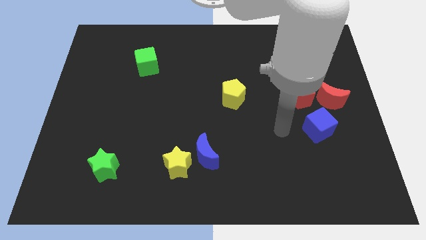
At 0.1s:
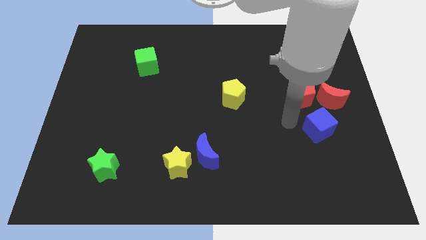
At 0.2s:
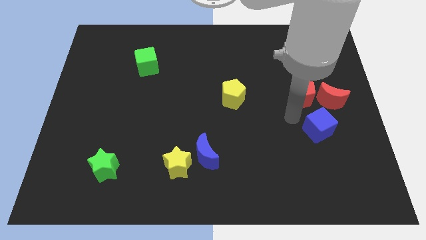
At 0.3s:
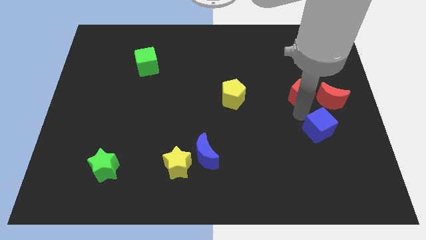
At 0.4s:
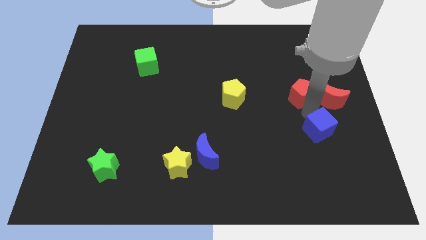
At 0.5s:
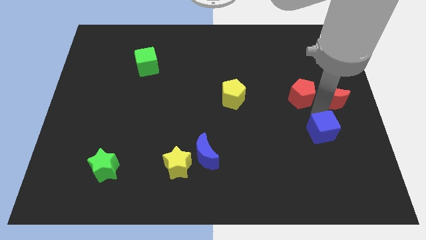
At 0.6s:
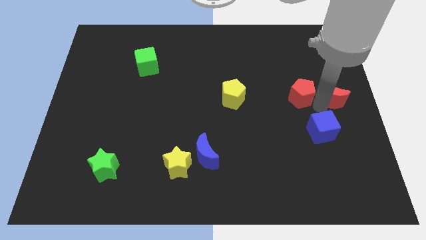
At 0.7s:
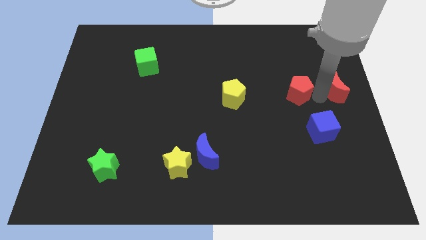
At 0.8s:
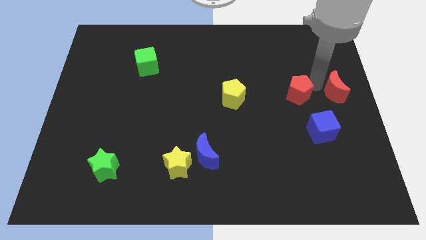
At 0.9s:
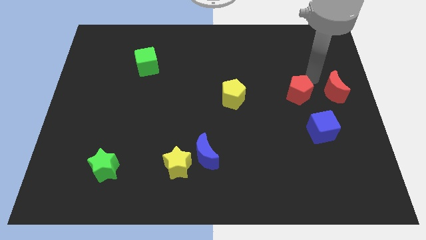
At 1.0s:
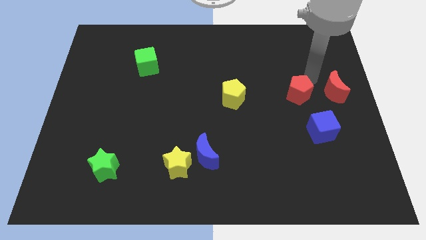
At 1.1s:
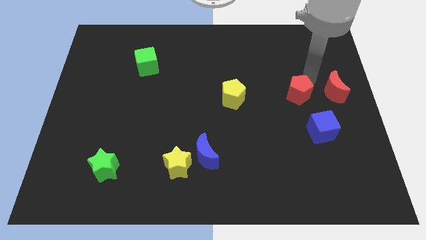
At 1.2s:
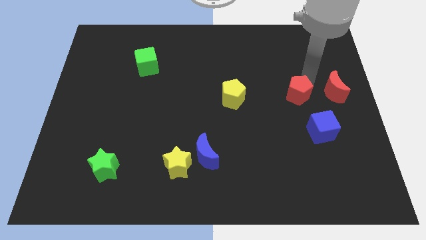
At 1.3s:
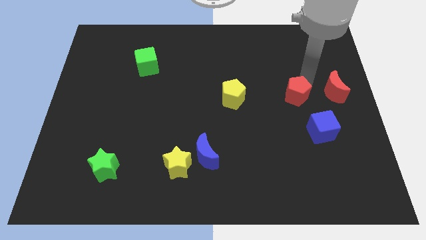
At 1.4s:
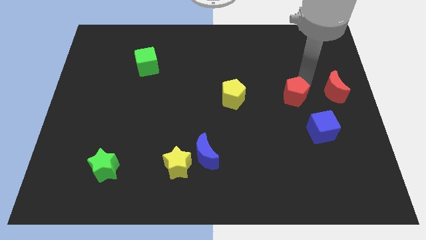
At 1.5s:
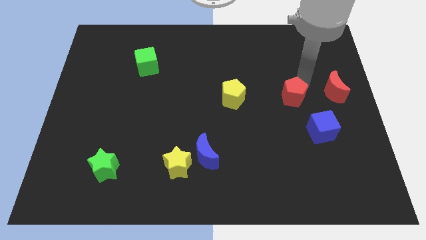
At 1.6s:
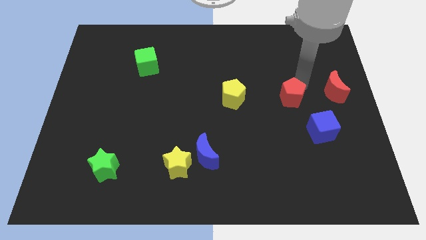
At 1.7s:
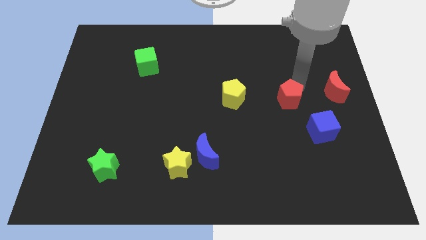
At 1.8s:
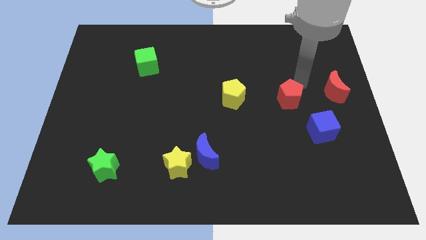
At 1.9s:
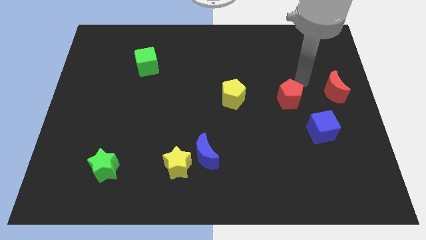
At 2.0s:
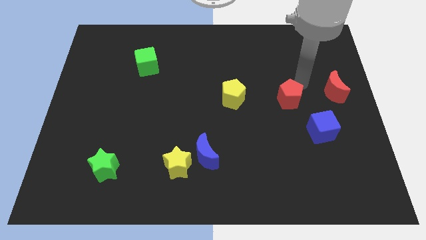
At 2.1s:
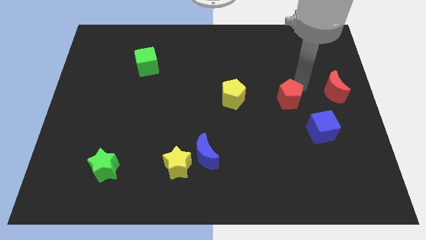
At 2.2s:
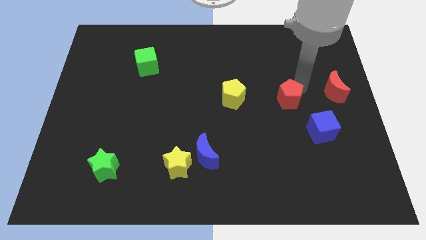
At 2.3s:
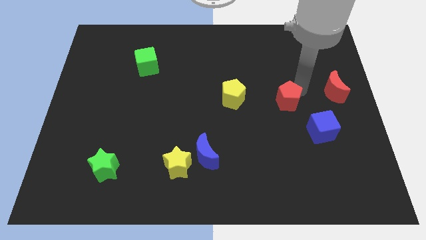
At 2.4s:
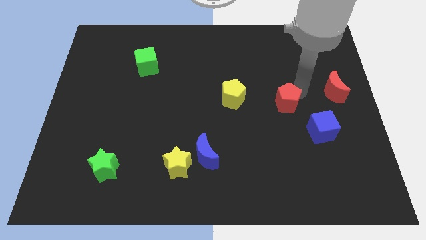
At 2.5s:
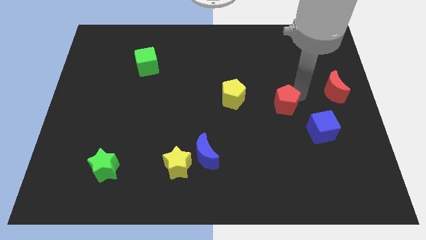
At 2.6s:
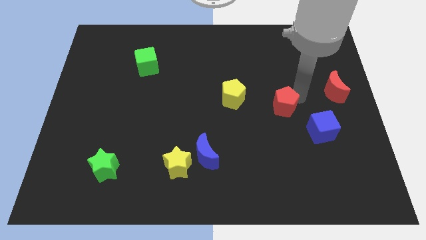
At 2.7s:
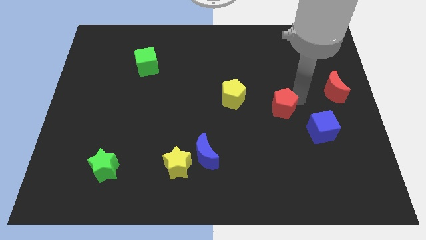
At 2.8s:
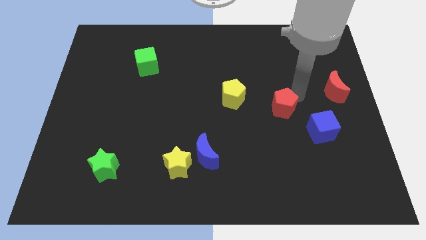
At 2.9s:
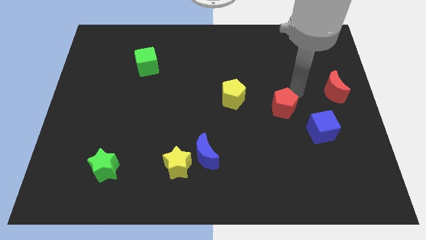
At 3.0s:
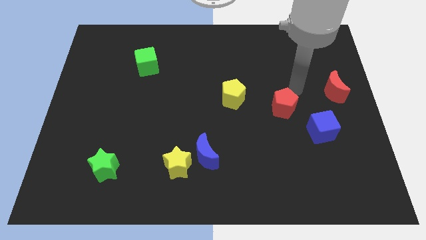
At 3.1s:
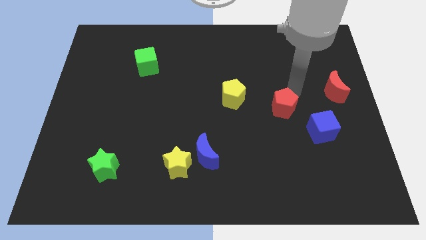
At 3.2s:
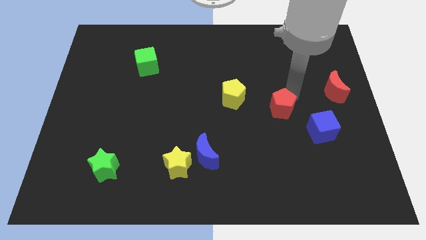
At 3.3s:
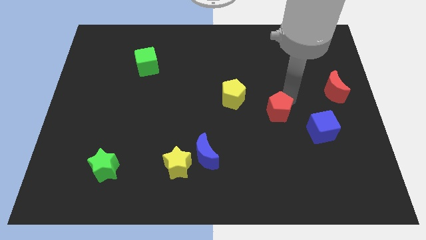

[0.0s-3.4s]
slide the red pentagon downwards and then left slightly

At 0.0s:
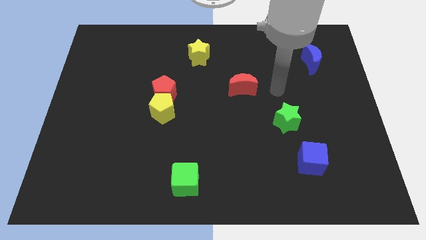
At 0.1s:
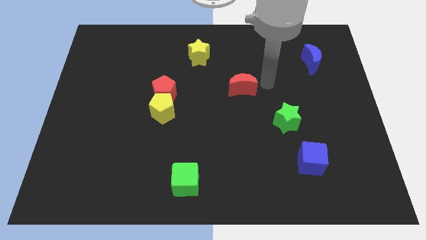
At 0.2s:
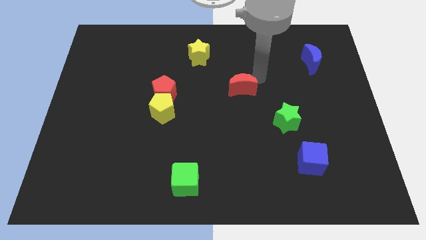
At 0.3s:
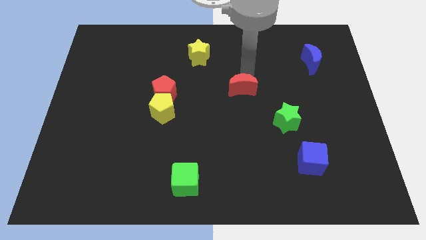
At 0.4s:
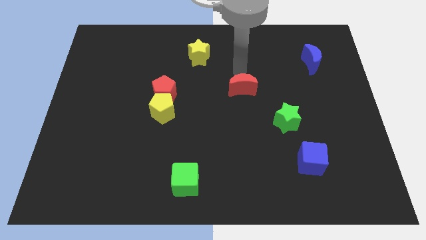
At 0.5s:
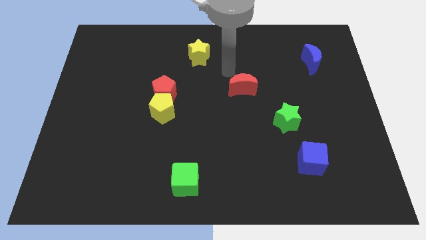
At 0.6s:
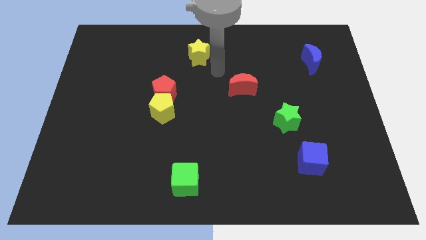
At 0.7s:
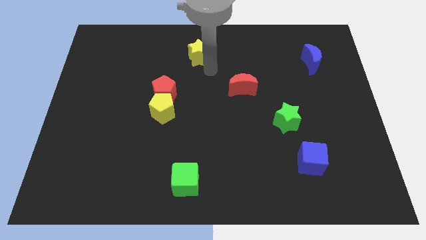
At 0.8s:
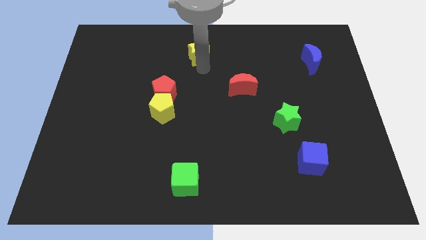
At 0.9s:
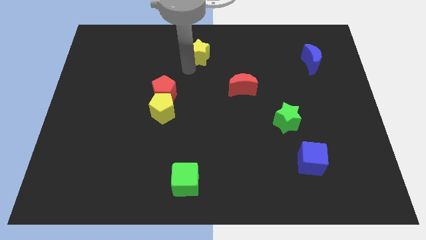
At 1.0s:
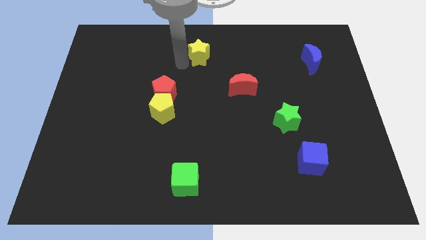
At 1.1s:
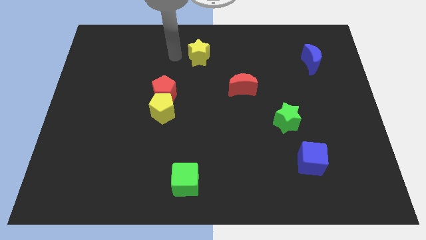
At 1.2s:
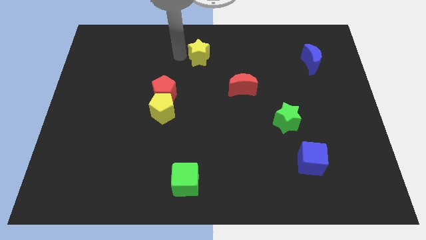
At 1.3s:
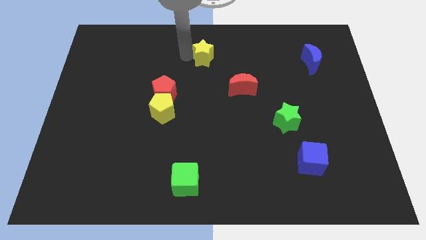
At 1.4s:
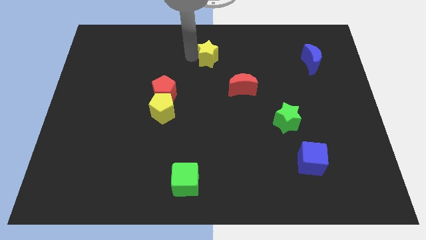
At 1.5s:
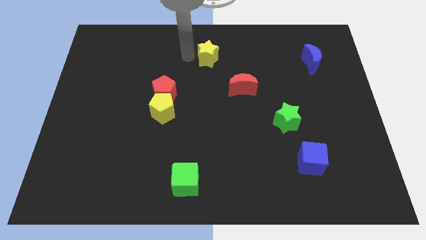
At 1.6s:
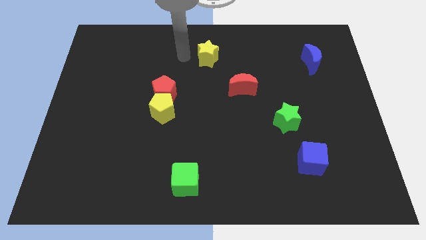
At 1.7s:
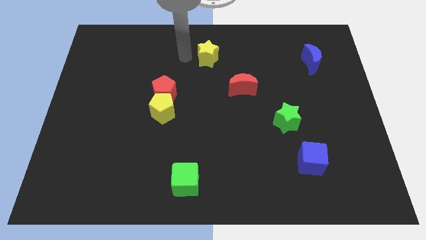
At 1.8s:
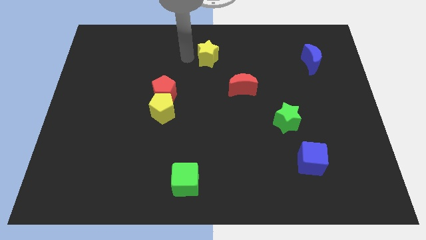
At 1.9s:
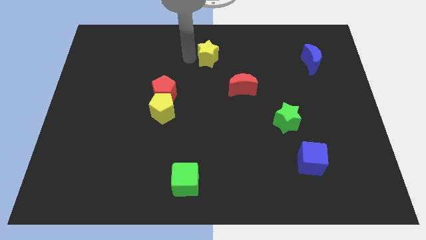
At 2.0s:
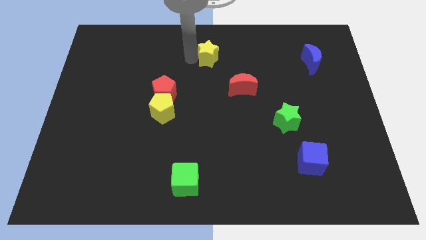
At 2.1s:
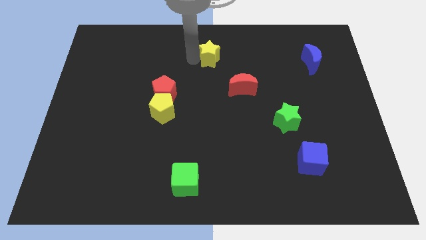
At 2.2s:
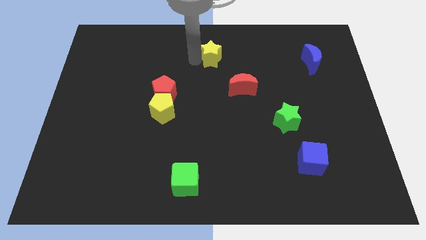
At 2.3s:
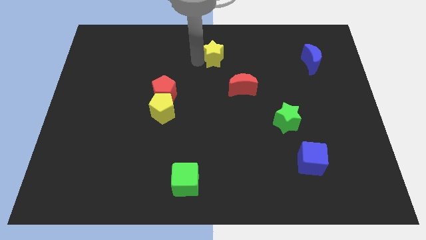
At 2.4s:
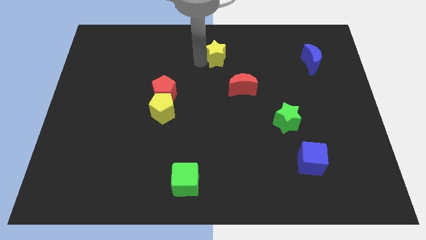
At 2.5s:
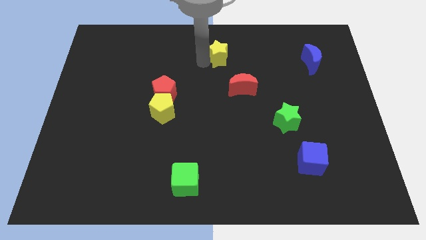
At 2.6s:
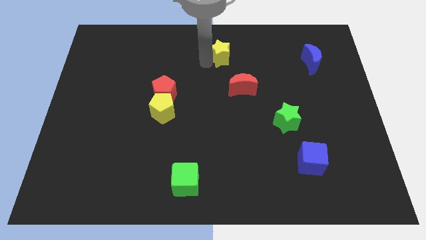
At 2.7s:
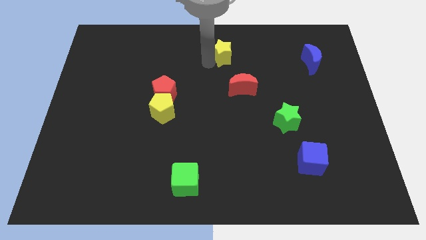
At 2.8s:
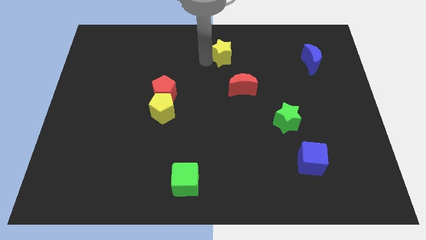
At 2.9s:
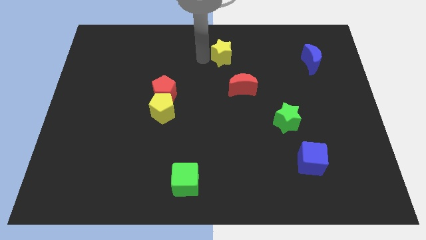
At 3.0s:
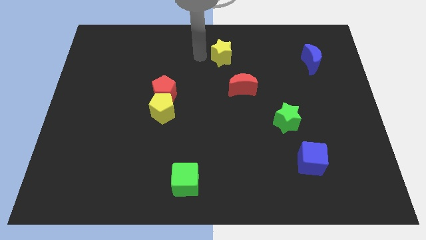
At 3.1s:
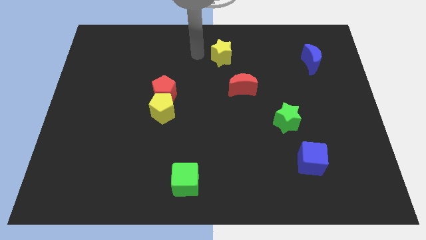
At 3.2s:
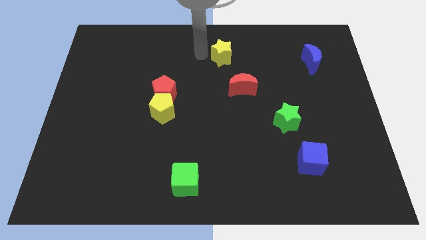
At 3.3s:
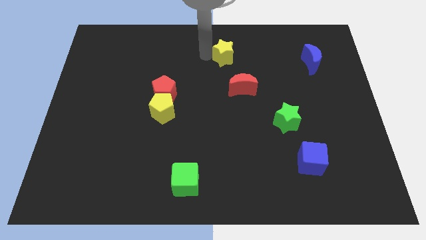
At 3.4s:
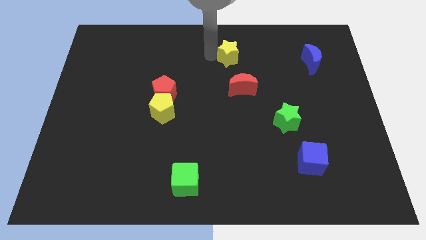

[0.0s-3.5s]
move the yellow star right a little

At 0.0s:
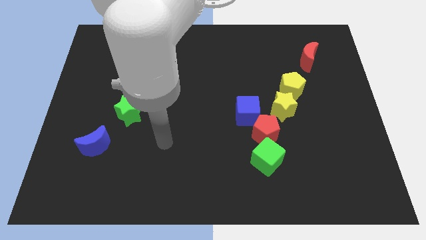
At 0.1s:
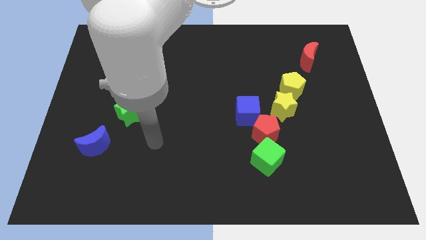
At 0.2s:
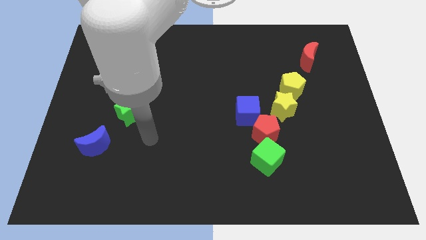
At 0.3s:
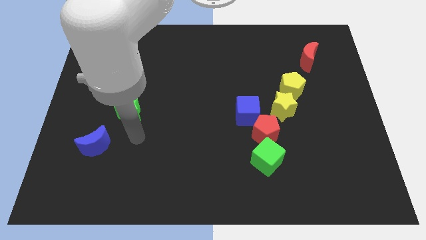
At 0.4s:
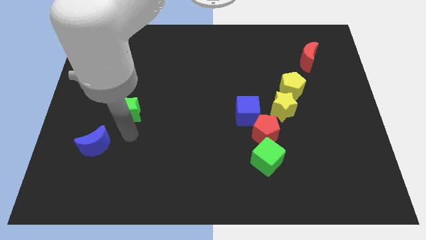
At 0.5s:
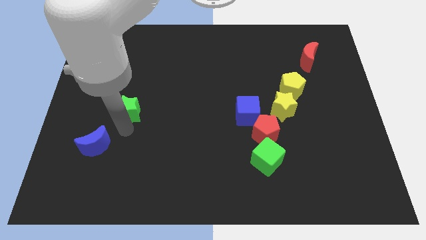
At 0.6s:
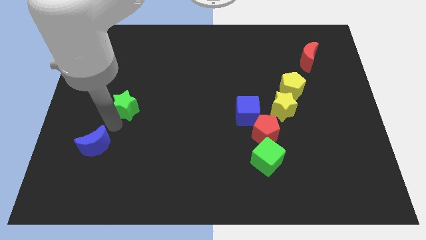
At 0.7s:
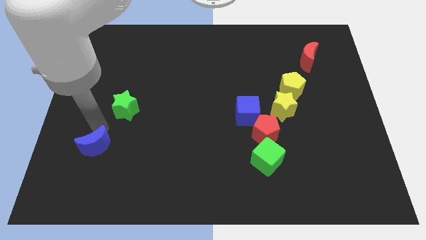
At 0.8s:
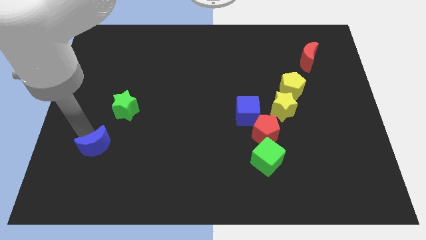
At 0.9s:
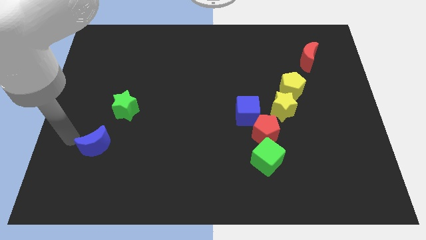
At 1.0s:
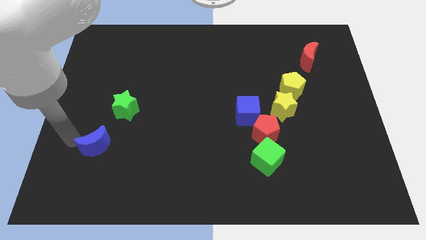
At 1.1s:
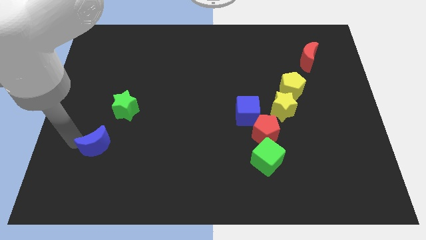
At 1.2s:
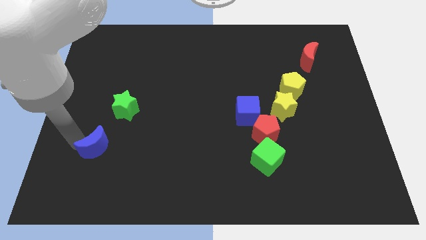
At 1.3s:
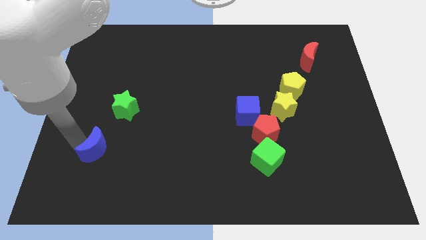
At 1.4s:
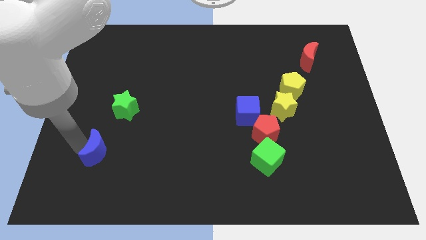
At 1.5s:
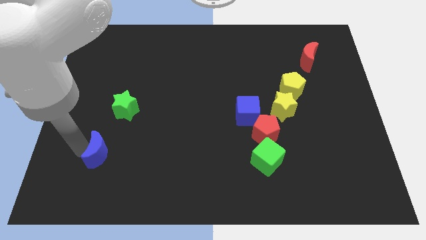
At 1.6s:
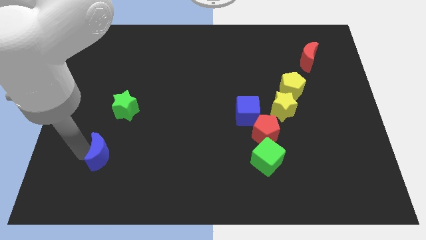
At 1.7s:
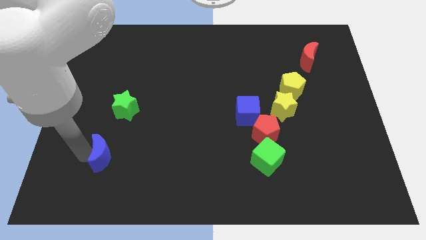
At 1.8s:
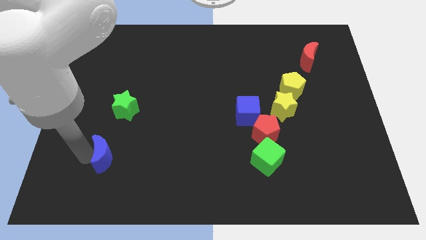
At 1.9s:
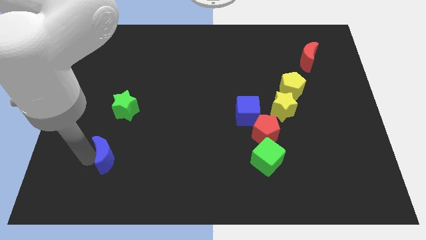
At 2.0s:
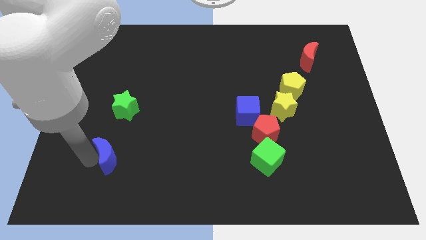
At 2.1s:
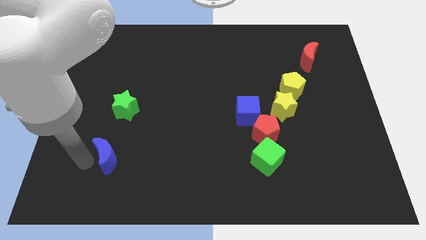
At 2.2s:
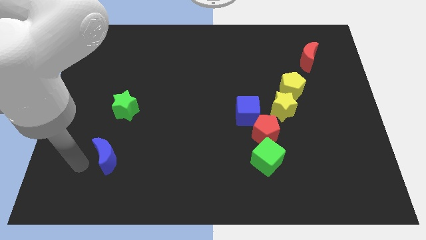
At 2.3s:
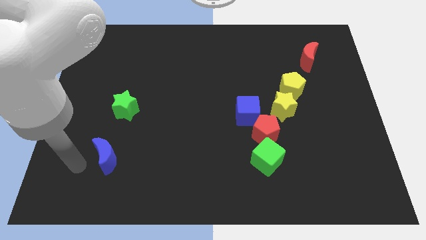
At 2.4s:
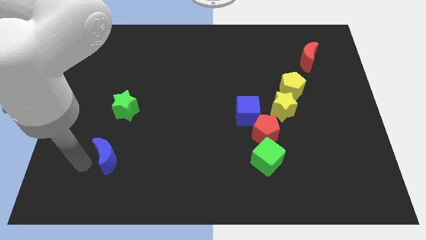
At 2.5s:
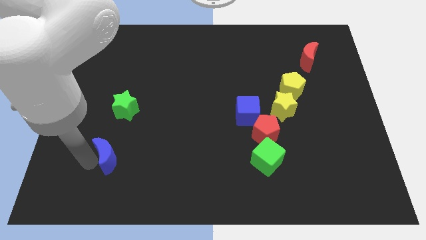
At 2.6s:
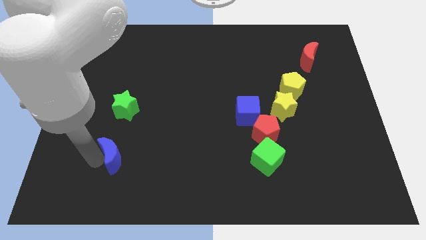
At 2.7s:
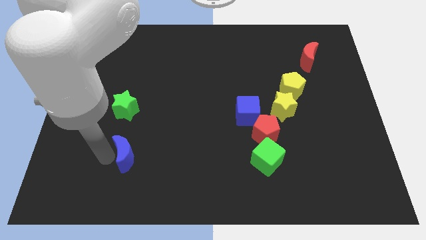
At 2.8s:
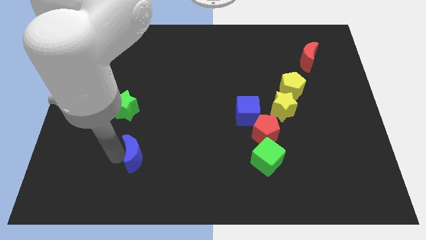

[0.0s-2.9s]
slightly slide the blue moon to the right
